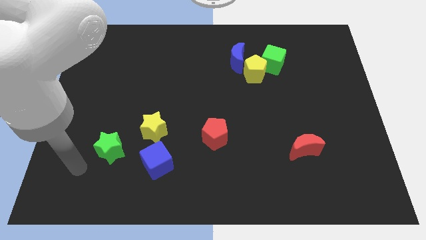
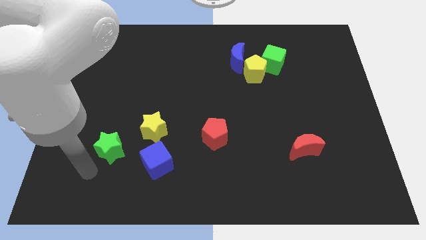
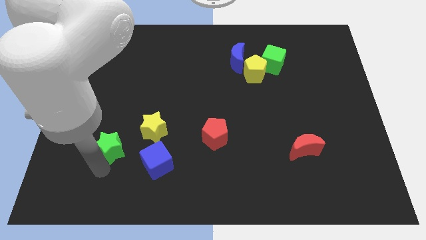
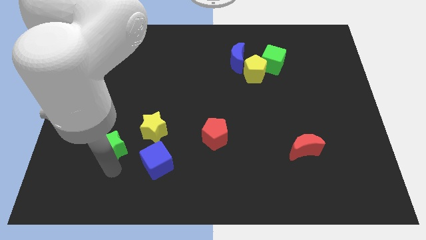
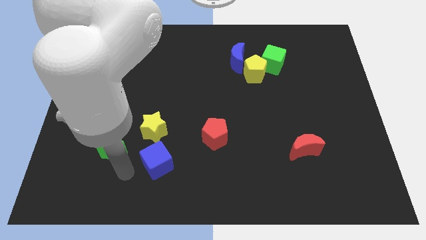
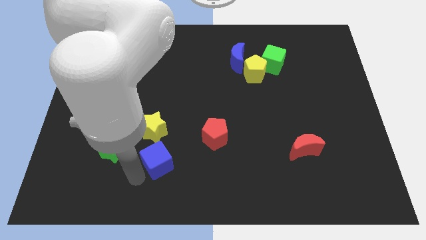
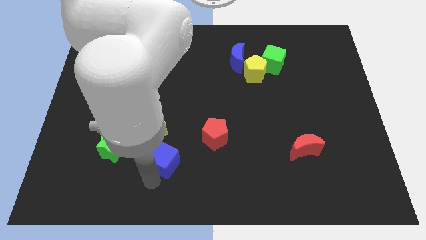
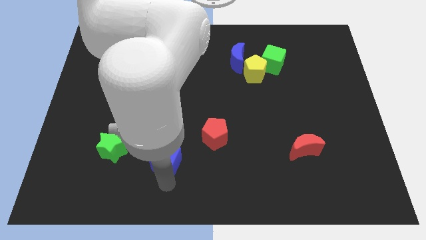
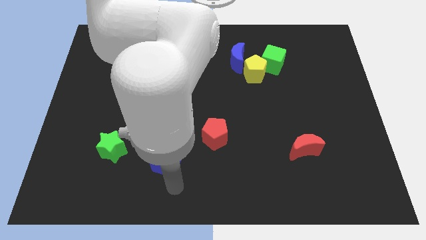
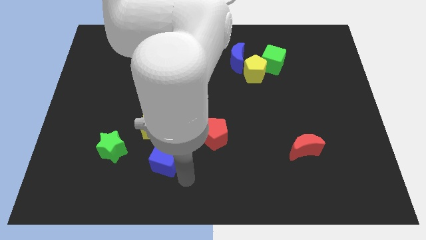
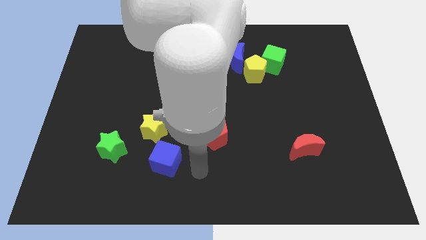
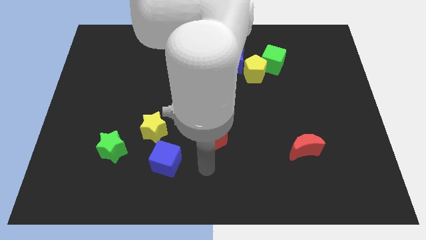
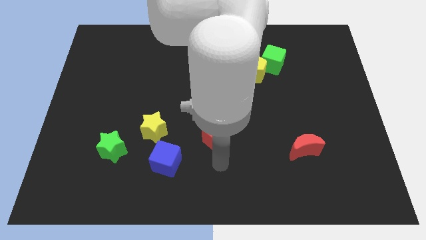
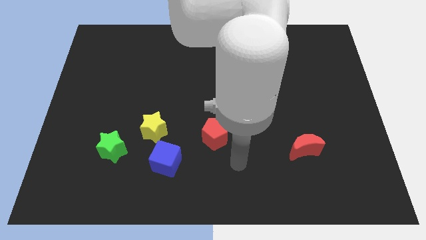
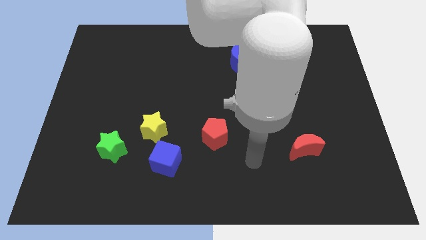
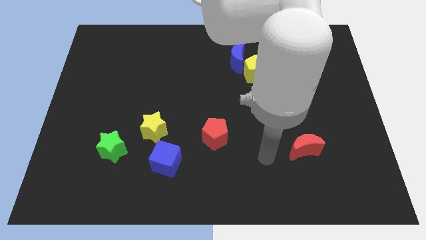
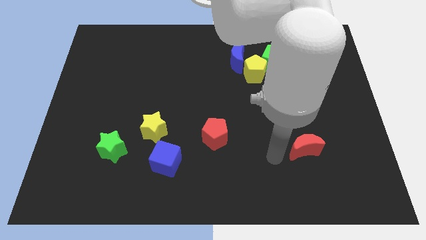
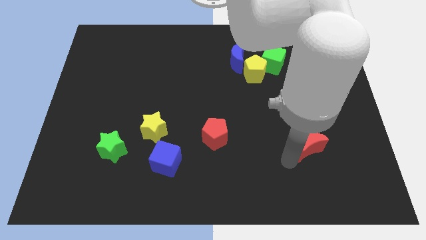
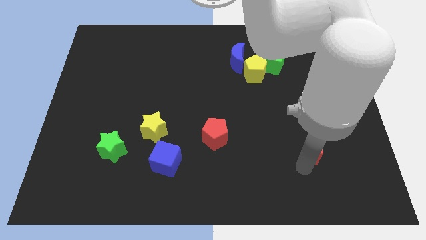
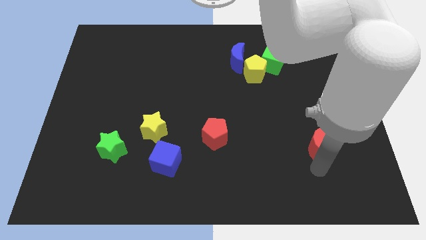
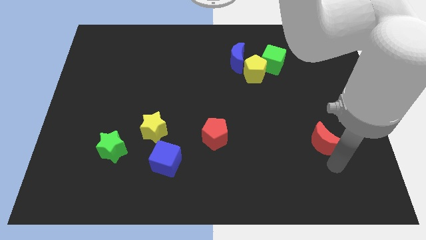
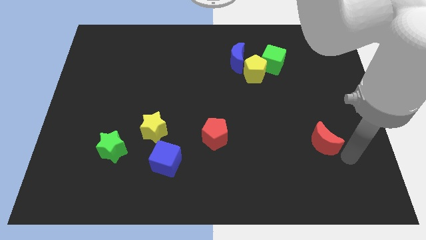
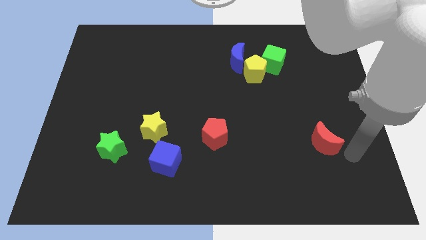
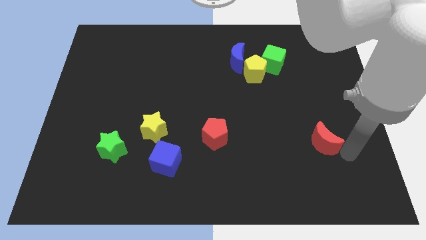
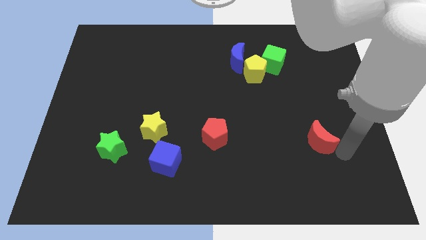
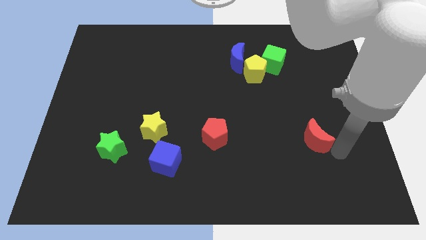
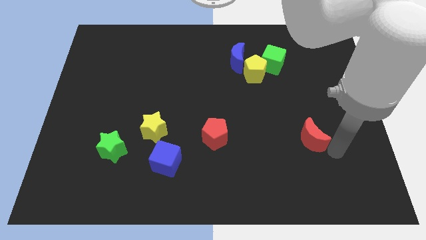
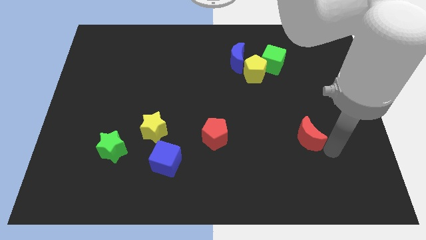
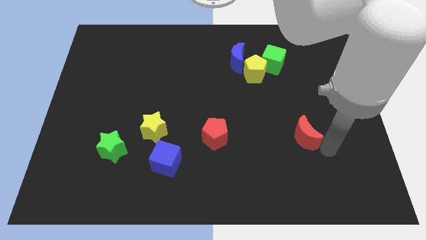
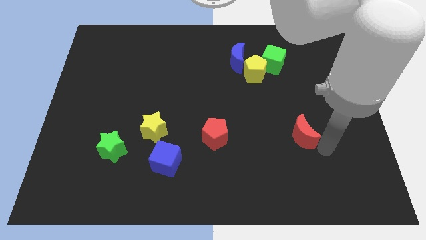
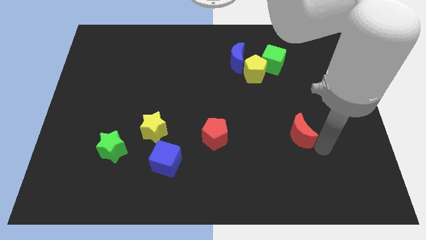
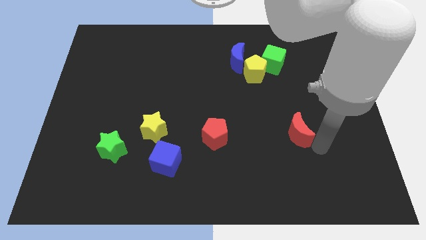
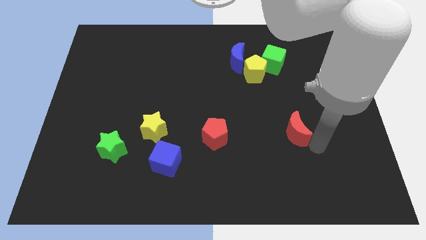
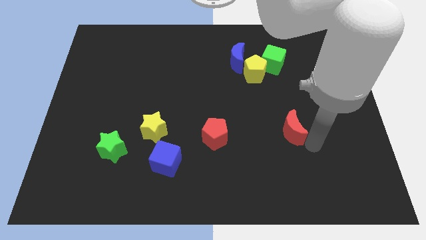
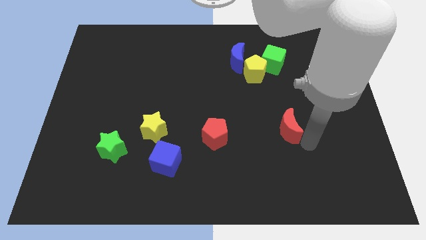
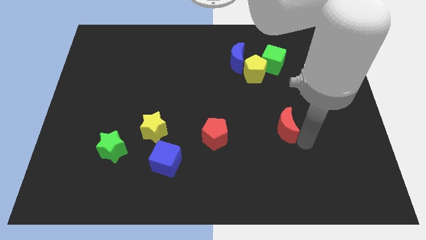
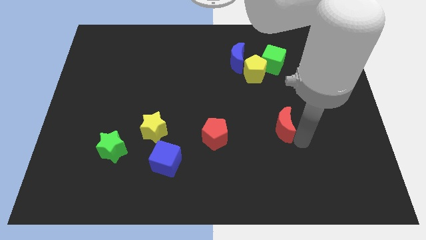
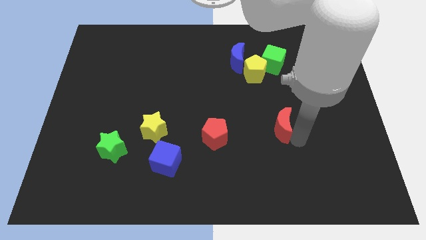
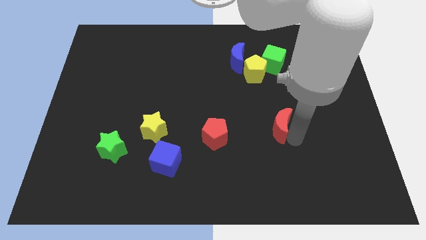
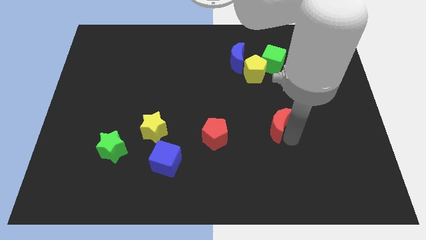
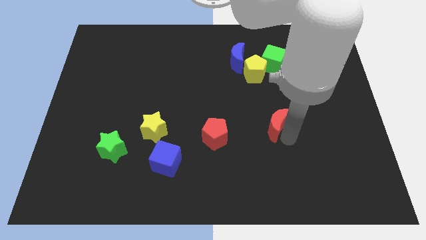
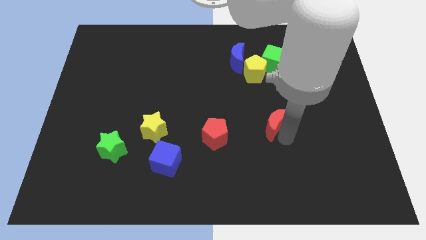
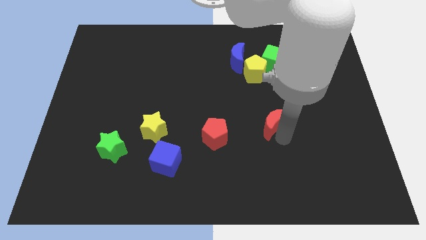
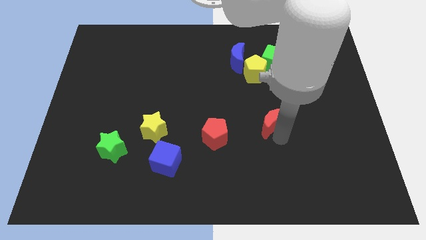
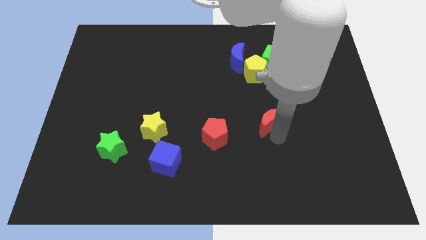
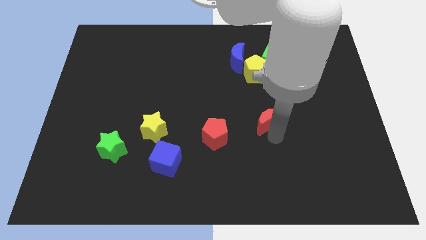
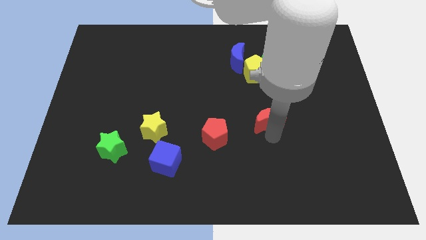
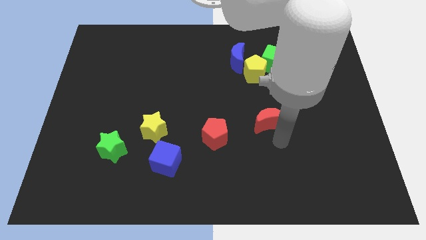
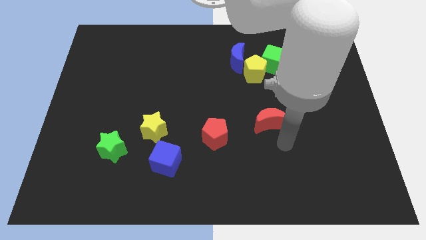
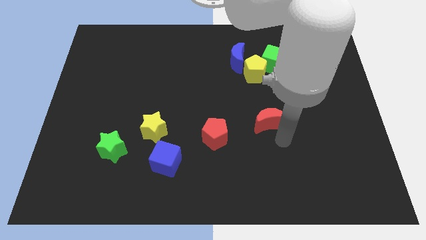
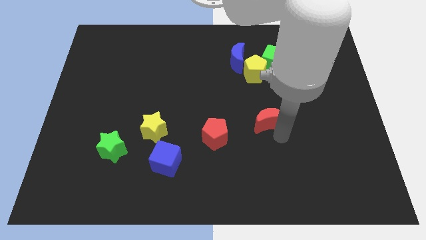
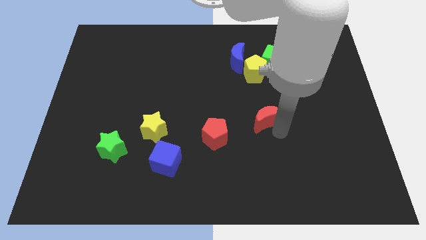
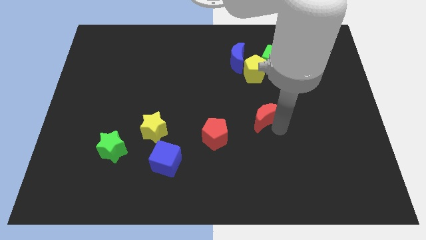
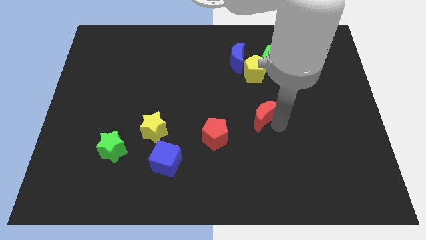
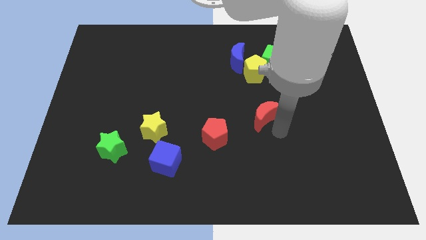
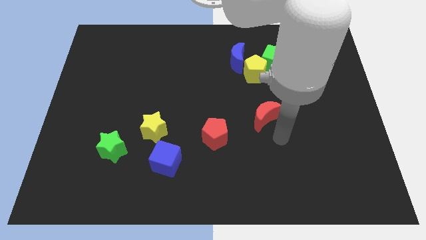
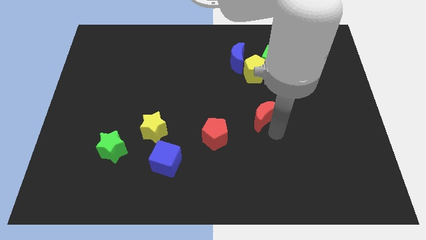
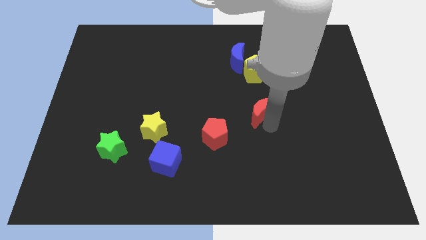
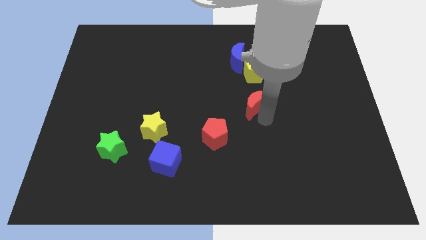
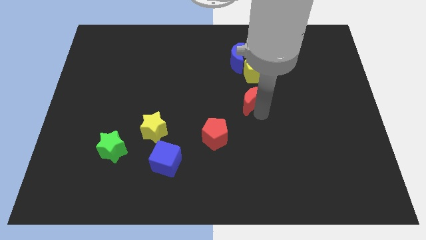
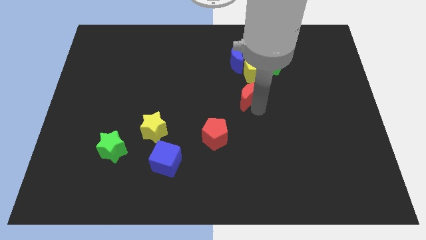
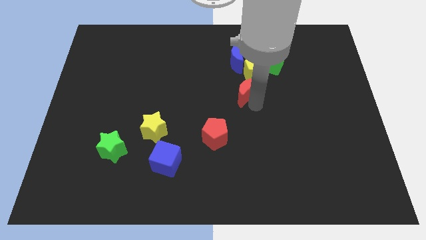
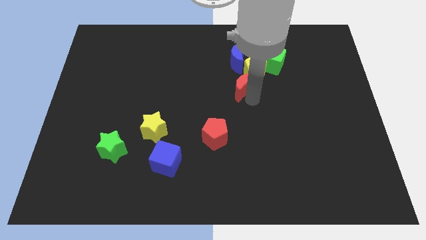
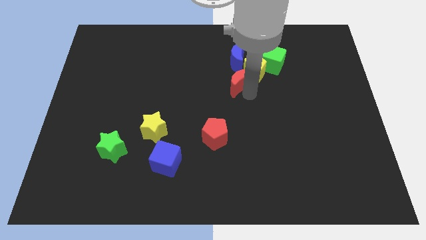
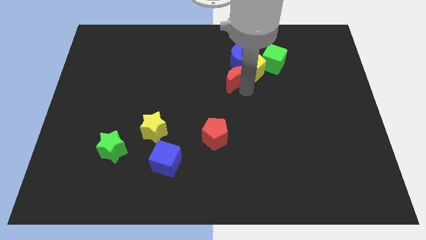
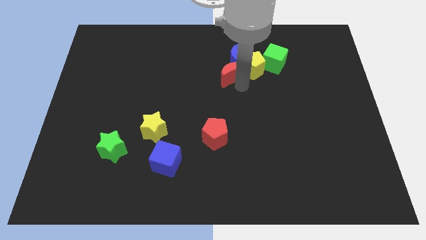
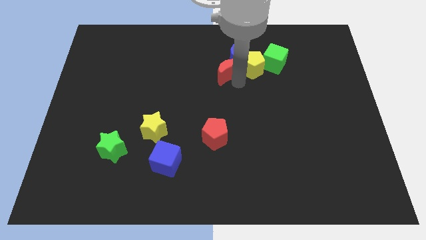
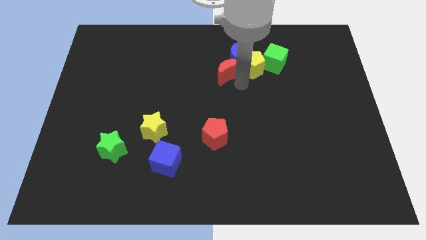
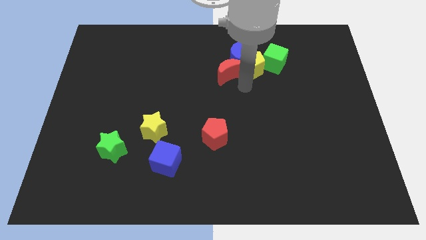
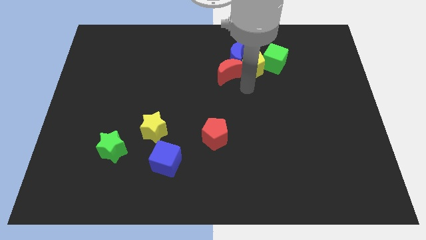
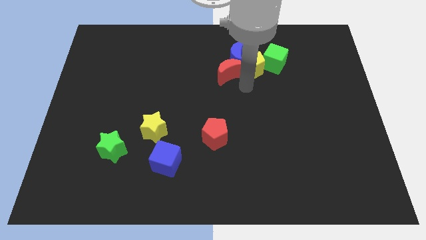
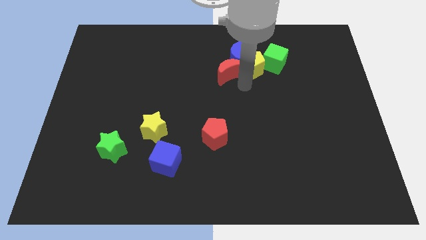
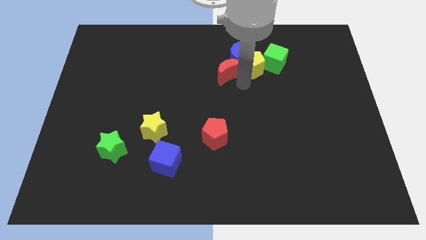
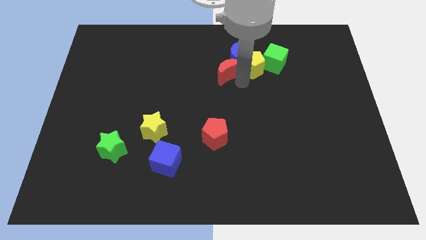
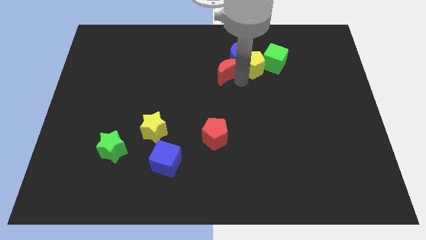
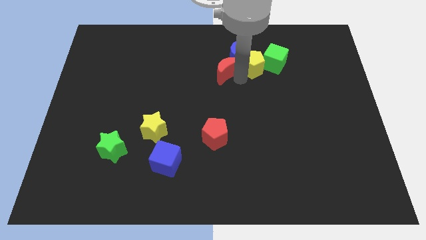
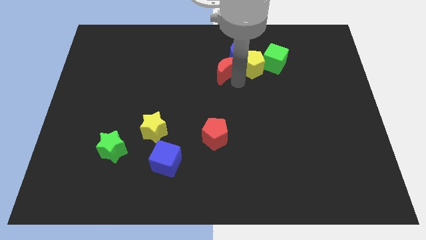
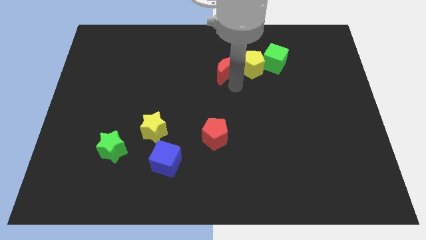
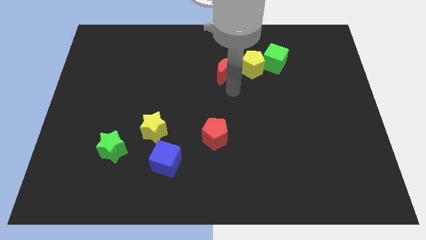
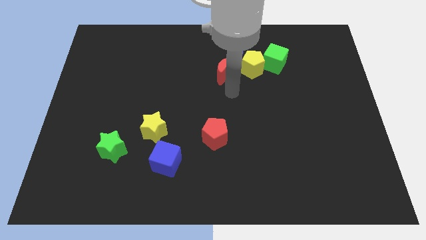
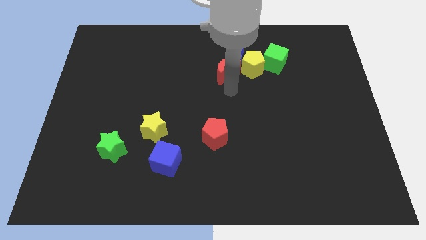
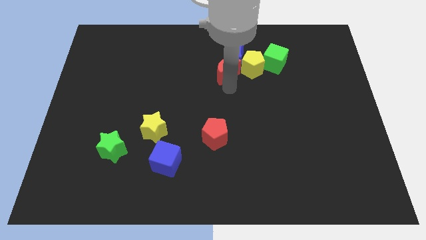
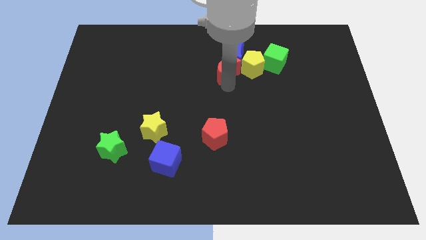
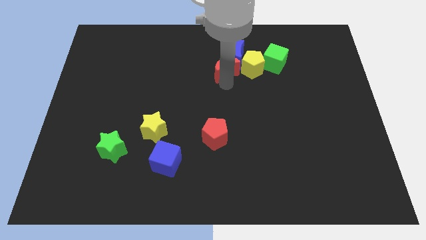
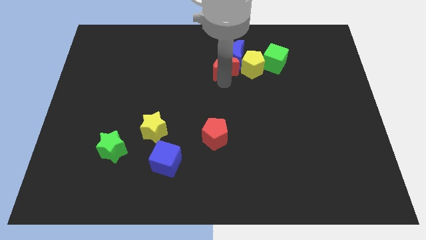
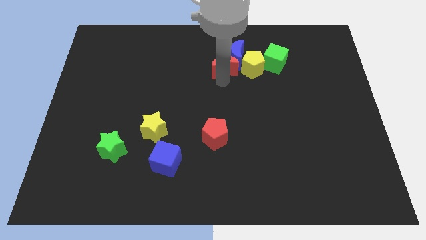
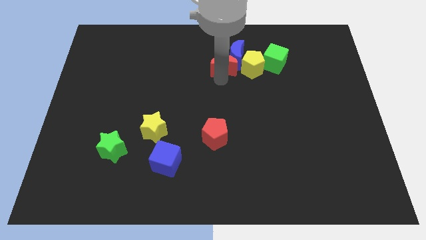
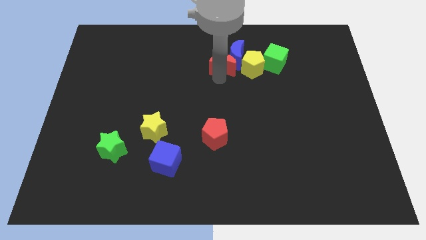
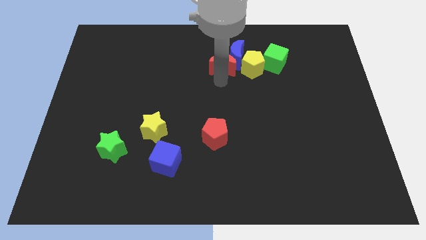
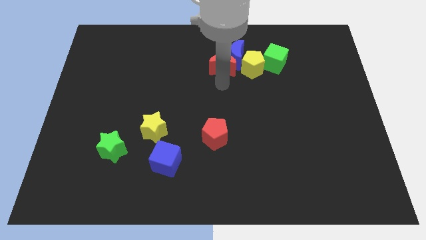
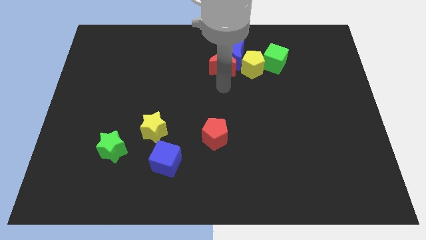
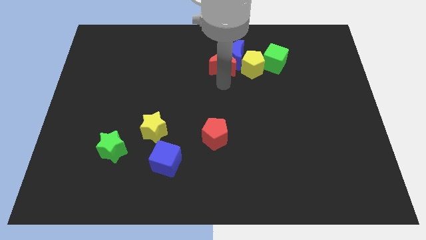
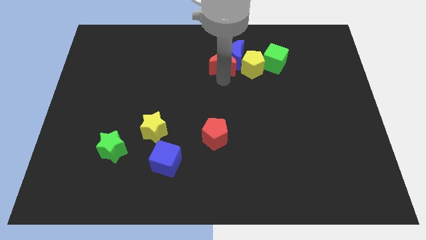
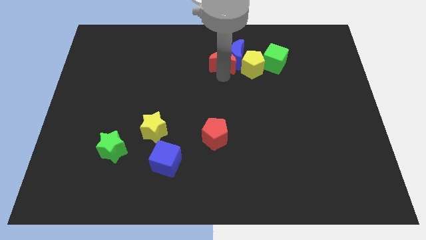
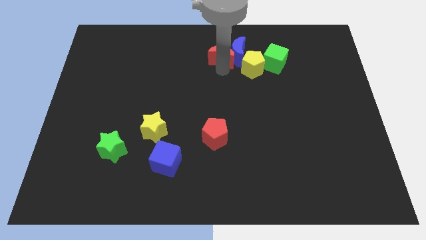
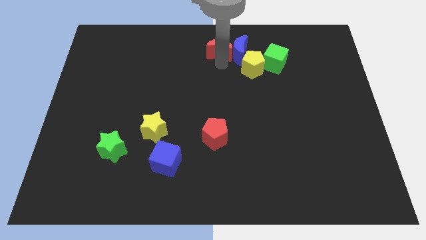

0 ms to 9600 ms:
slide the red moon to the towards your base
